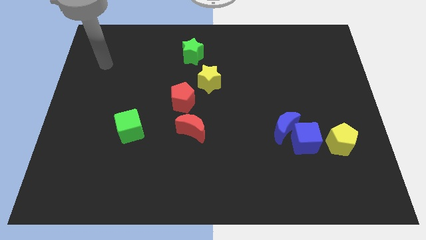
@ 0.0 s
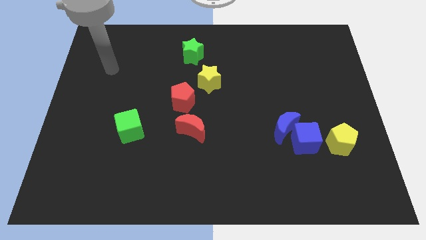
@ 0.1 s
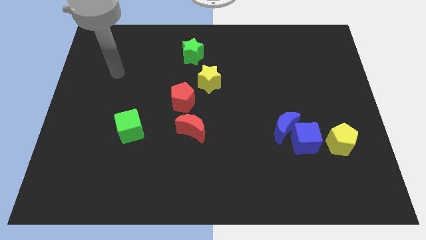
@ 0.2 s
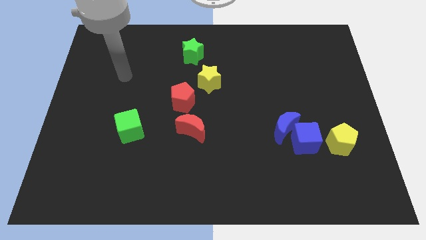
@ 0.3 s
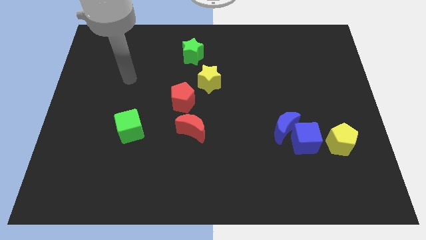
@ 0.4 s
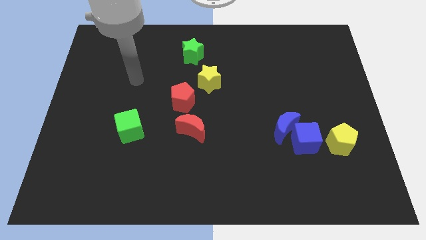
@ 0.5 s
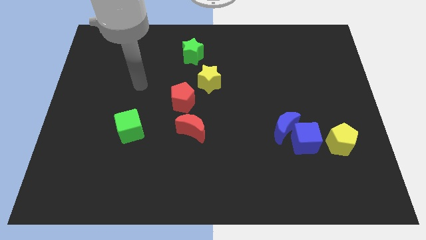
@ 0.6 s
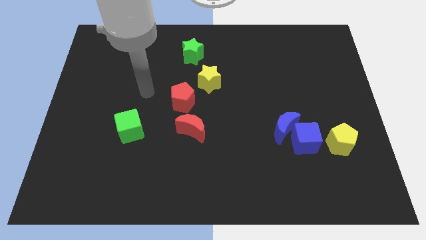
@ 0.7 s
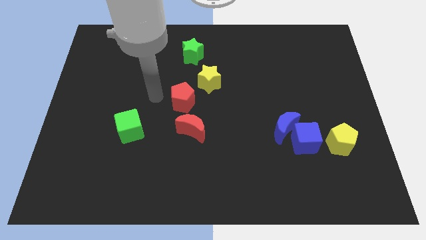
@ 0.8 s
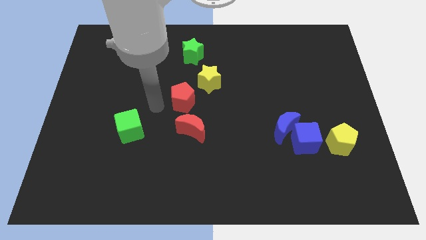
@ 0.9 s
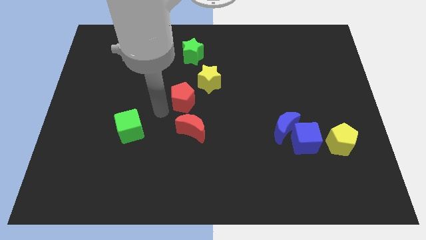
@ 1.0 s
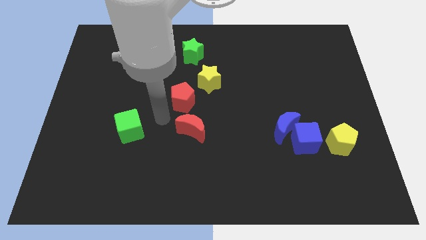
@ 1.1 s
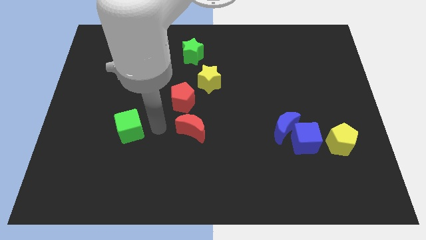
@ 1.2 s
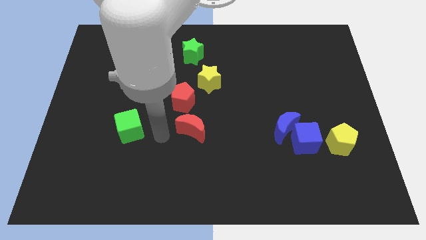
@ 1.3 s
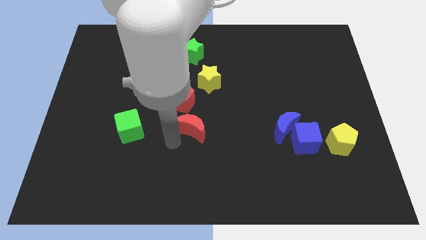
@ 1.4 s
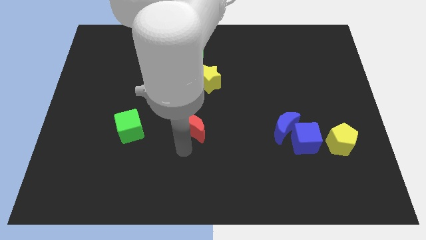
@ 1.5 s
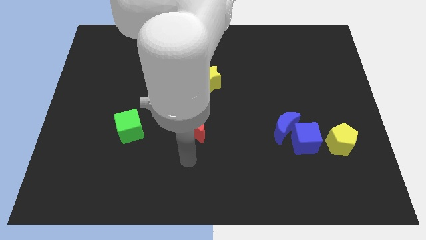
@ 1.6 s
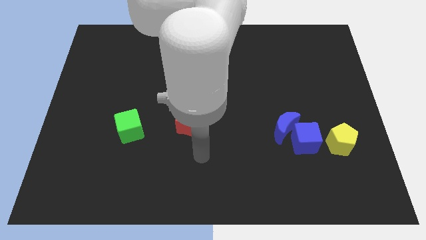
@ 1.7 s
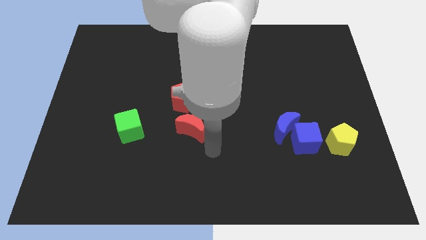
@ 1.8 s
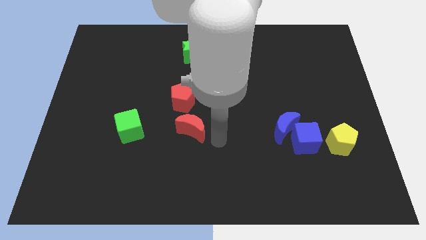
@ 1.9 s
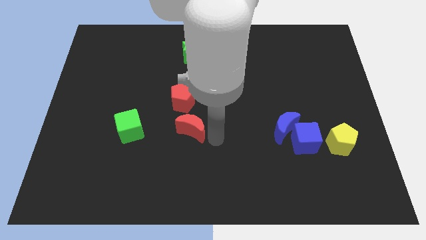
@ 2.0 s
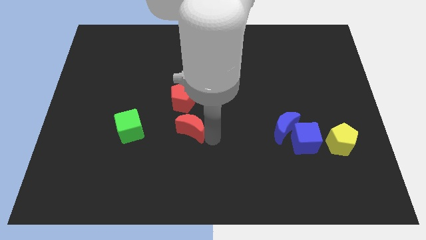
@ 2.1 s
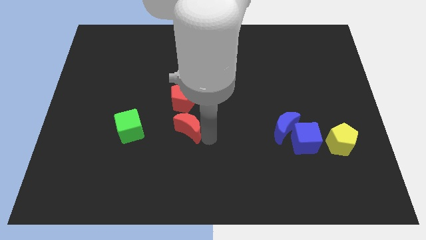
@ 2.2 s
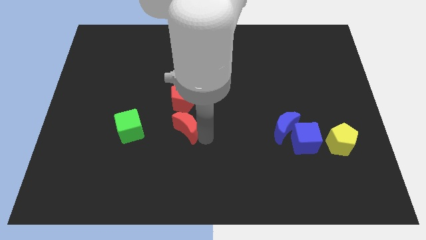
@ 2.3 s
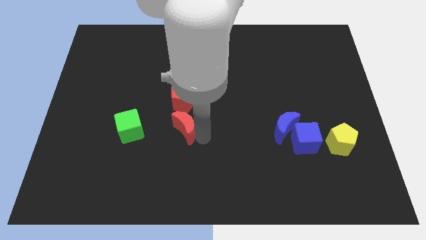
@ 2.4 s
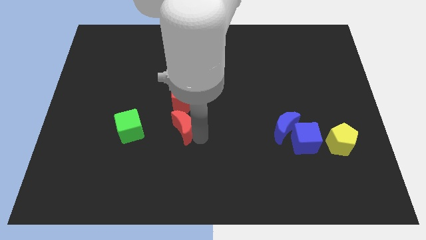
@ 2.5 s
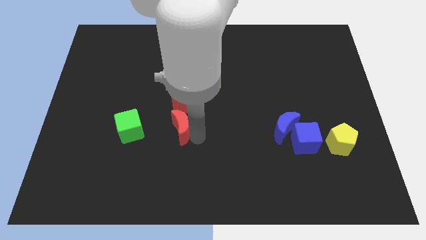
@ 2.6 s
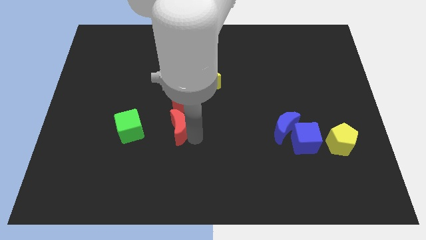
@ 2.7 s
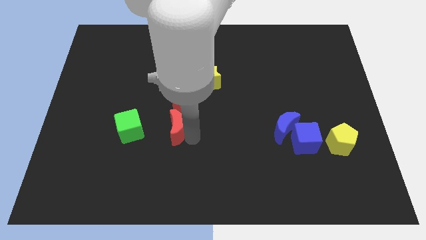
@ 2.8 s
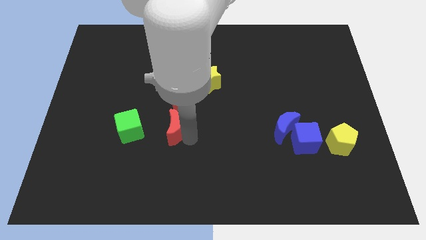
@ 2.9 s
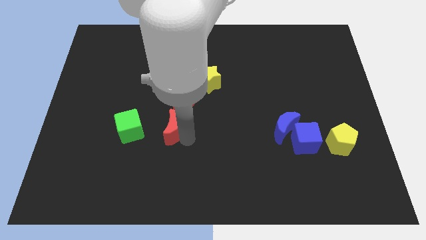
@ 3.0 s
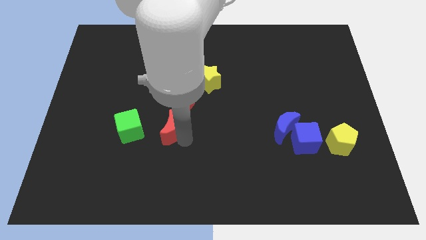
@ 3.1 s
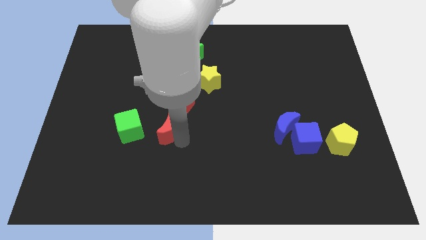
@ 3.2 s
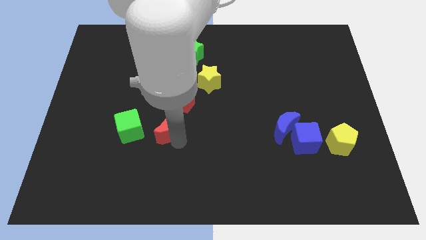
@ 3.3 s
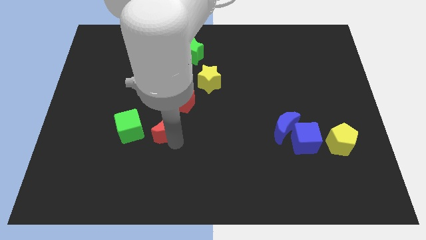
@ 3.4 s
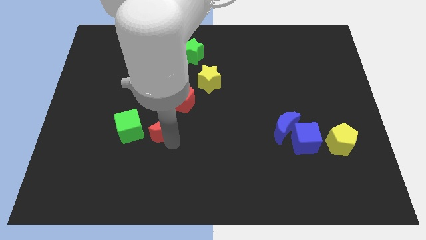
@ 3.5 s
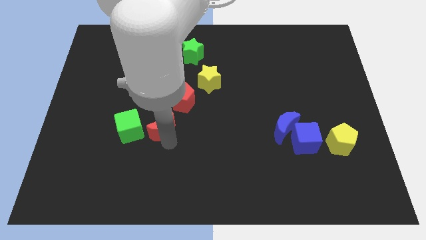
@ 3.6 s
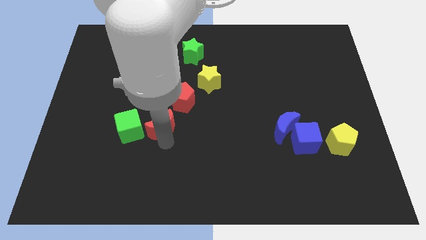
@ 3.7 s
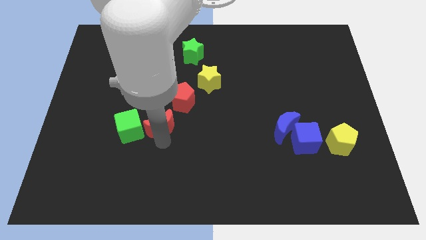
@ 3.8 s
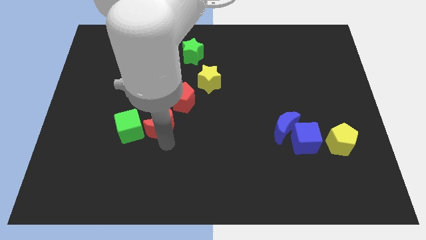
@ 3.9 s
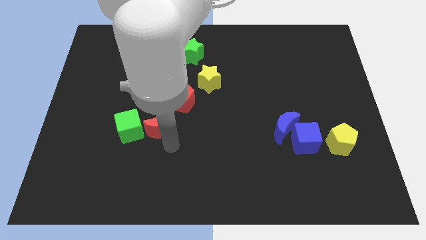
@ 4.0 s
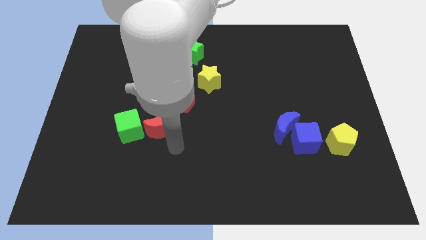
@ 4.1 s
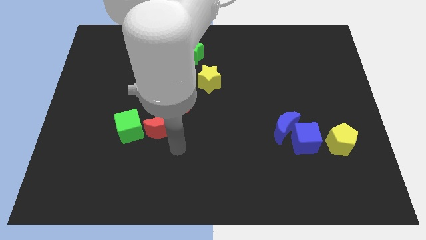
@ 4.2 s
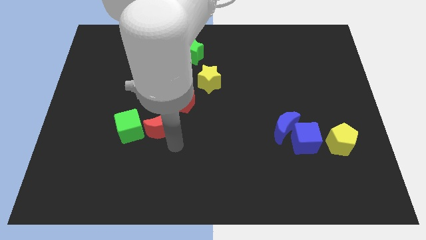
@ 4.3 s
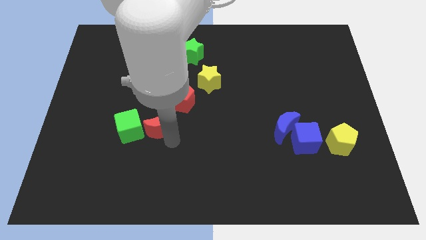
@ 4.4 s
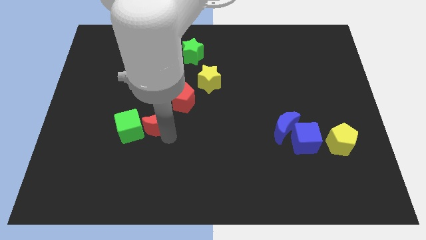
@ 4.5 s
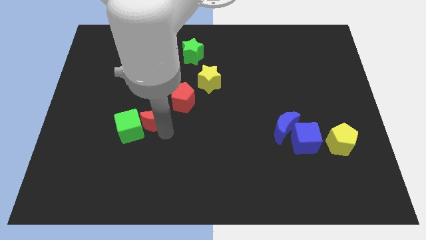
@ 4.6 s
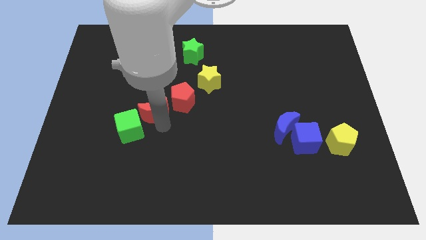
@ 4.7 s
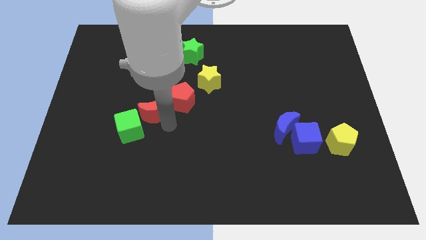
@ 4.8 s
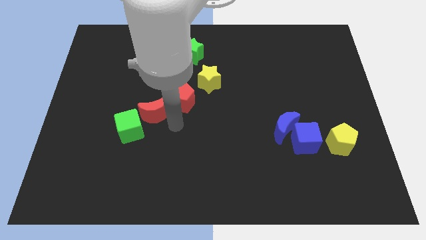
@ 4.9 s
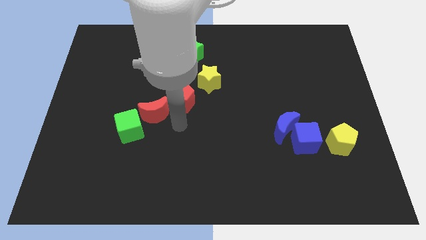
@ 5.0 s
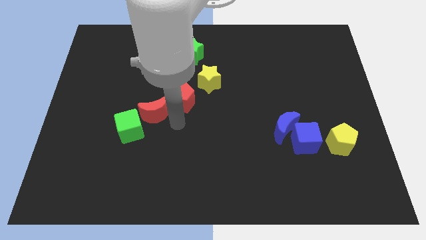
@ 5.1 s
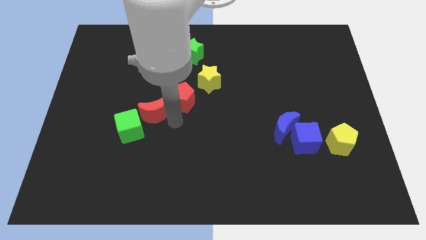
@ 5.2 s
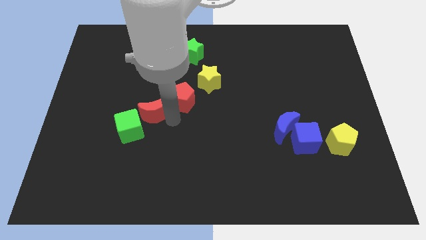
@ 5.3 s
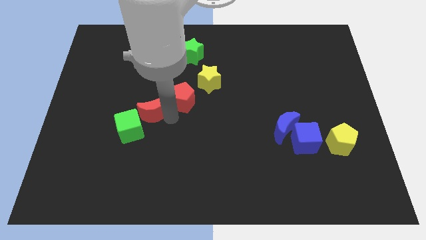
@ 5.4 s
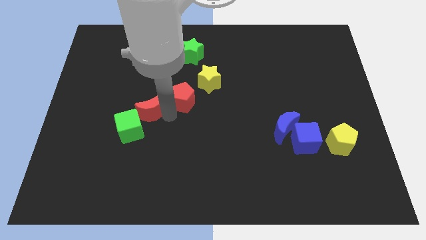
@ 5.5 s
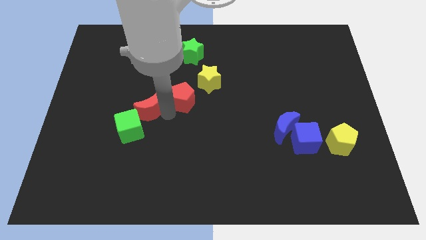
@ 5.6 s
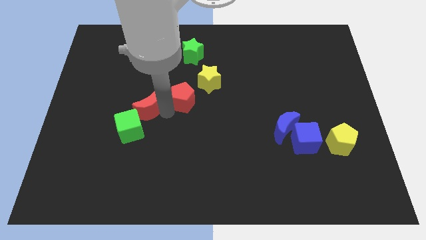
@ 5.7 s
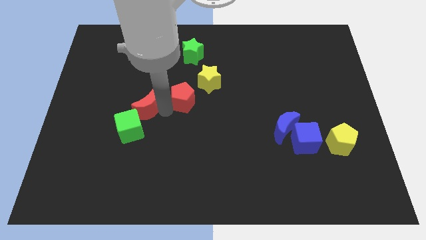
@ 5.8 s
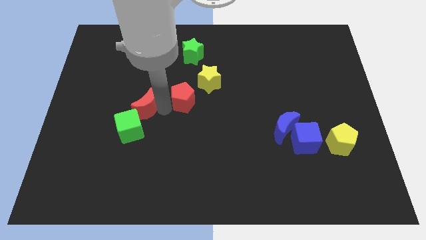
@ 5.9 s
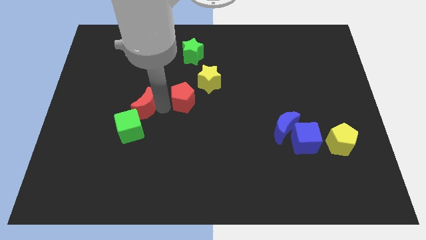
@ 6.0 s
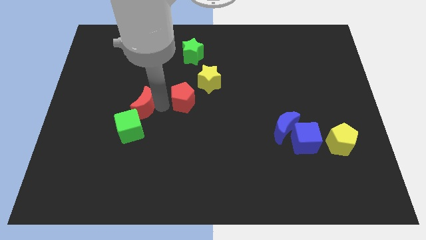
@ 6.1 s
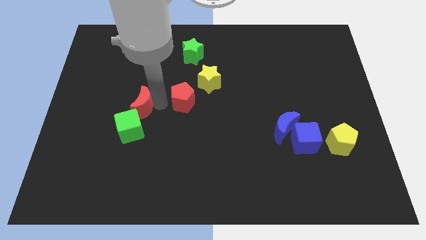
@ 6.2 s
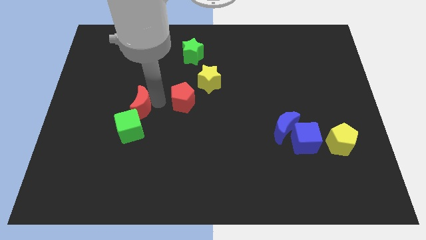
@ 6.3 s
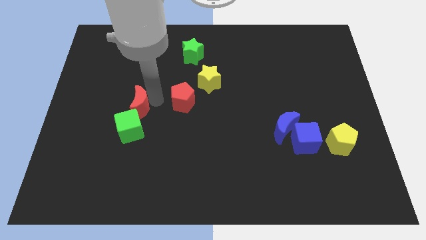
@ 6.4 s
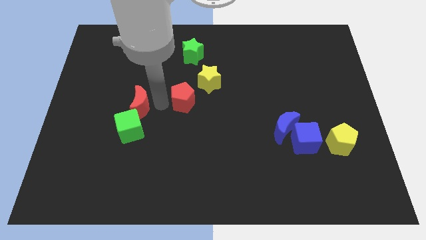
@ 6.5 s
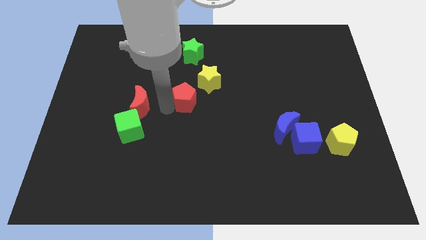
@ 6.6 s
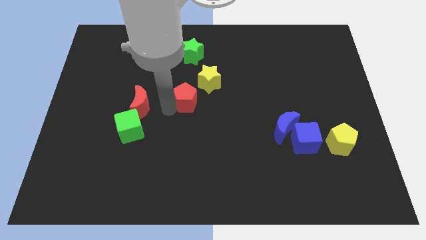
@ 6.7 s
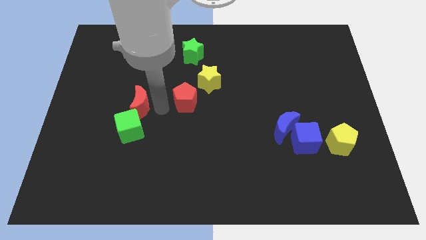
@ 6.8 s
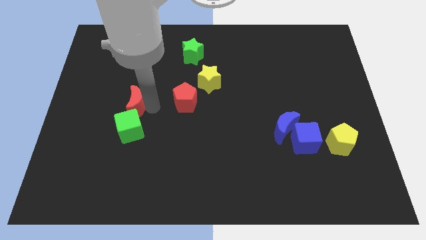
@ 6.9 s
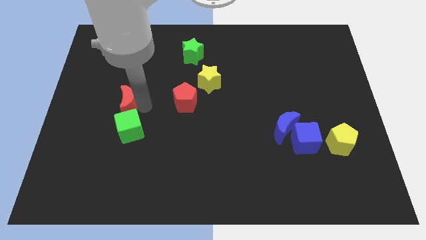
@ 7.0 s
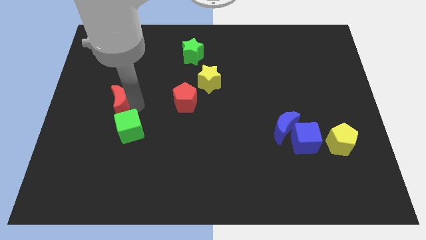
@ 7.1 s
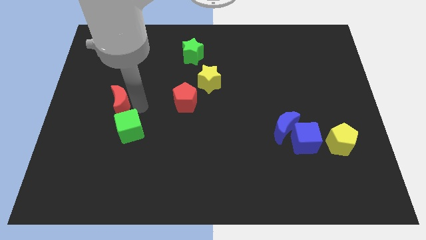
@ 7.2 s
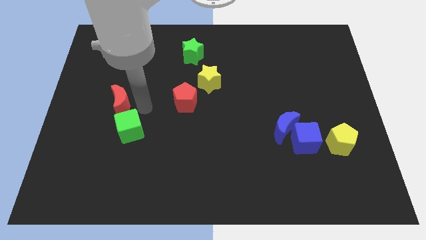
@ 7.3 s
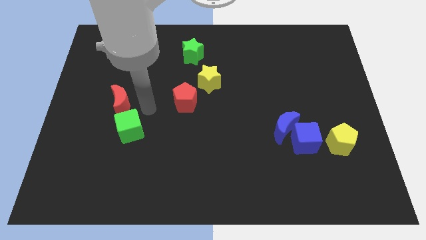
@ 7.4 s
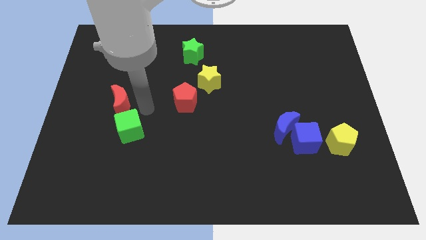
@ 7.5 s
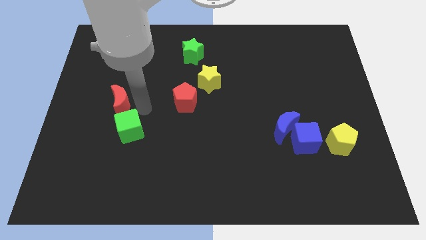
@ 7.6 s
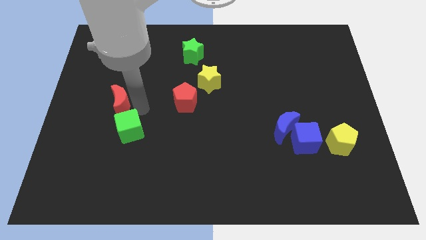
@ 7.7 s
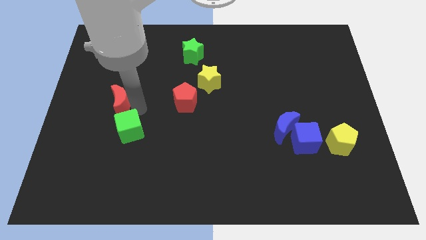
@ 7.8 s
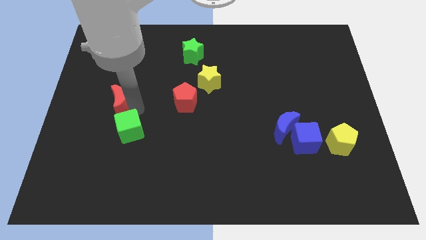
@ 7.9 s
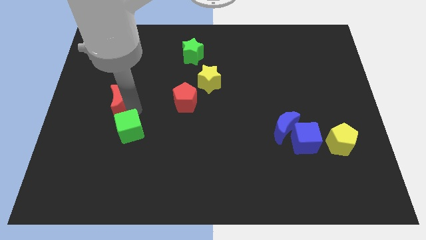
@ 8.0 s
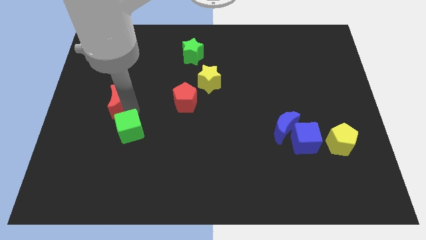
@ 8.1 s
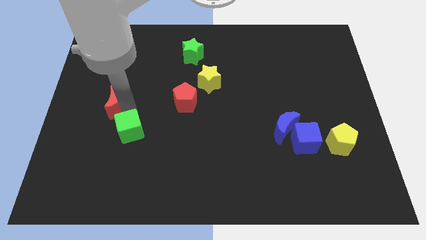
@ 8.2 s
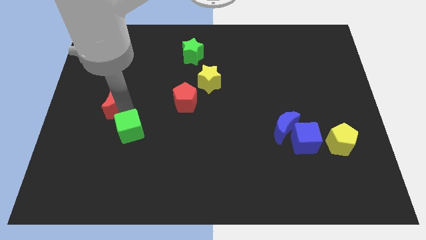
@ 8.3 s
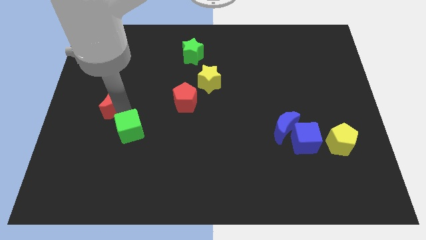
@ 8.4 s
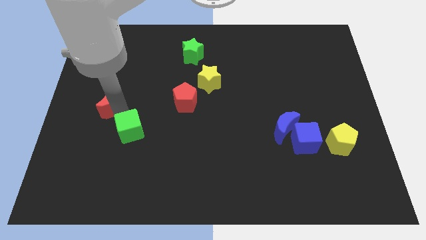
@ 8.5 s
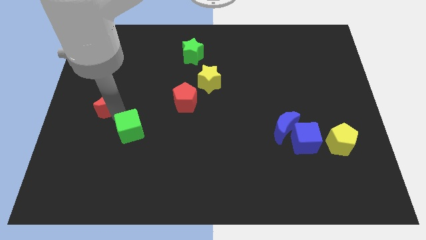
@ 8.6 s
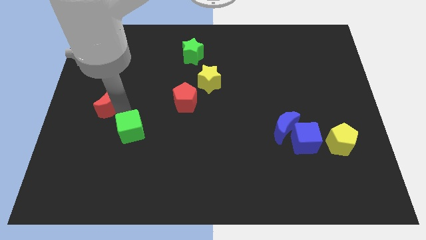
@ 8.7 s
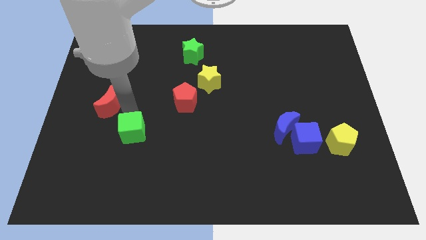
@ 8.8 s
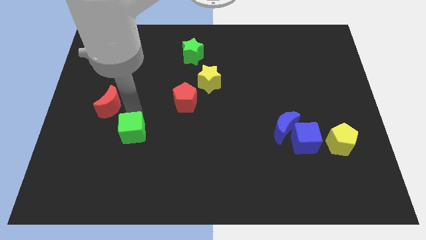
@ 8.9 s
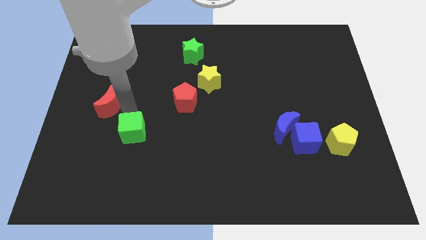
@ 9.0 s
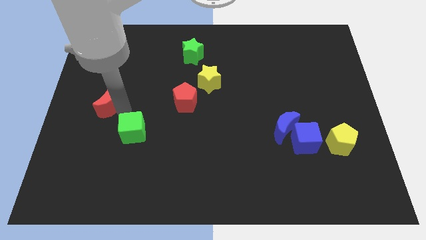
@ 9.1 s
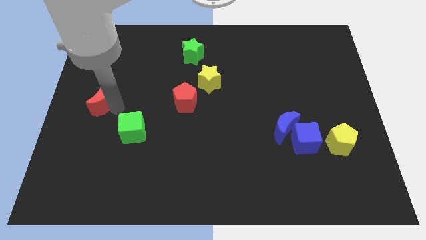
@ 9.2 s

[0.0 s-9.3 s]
move the red moon to the left side
